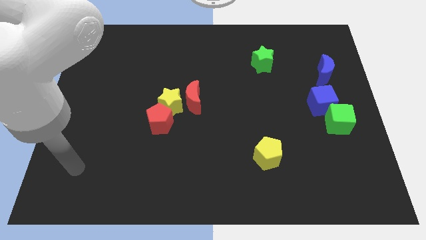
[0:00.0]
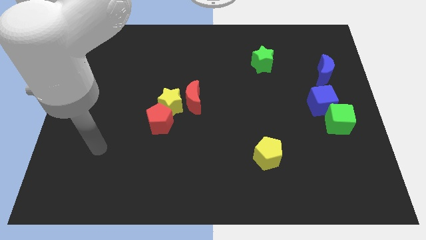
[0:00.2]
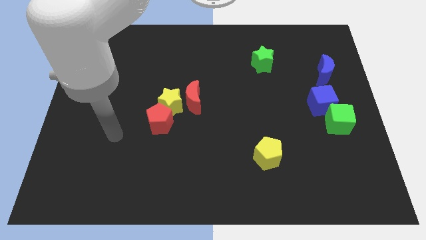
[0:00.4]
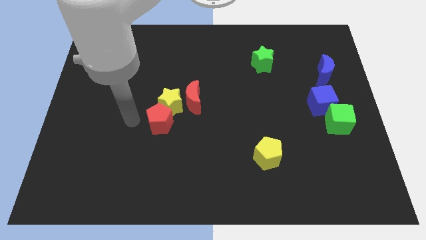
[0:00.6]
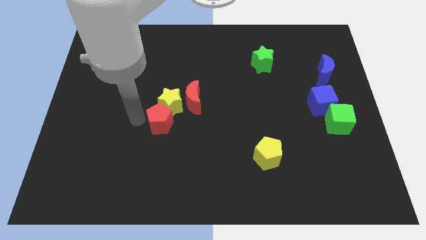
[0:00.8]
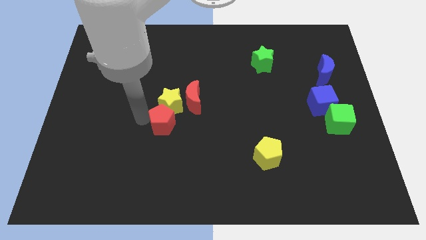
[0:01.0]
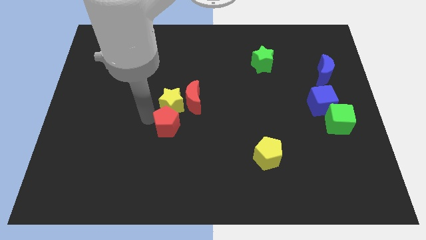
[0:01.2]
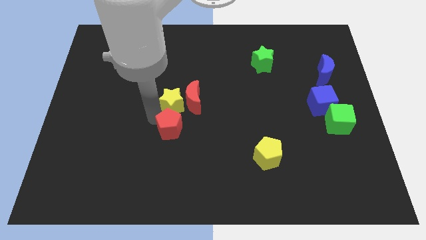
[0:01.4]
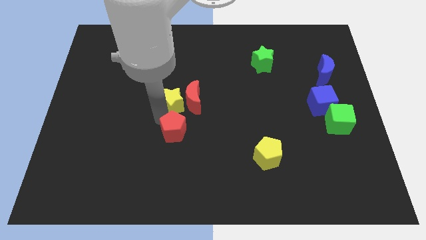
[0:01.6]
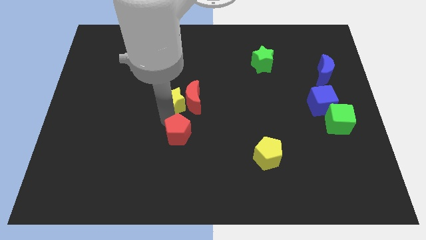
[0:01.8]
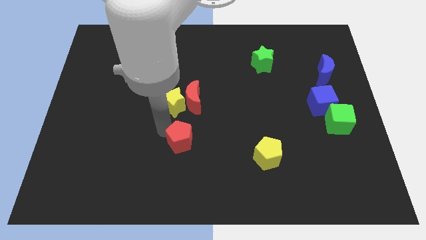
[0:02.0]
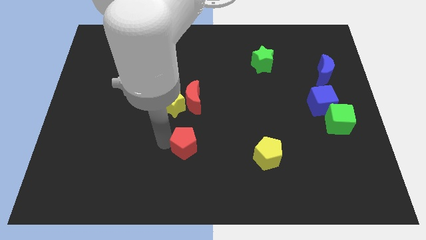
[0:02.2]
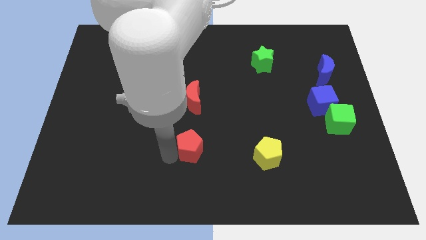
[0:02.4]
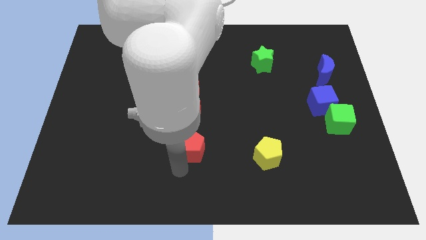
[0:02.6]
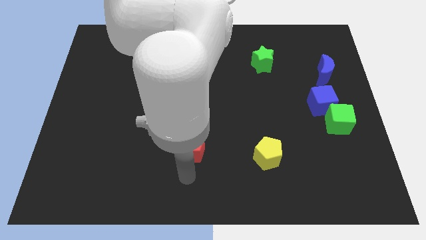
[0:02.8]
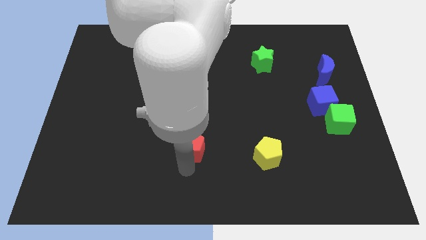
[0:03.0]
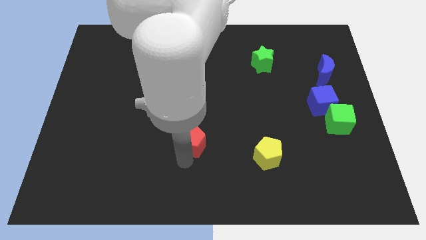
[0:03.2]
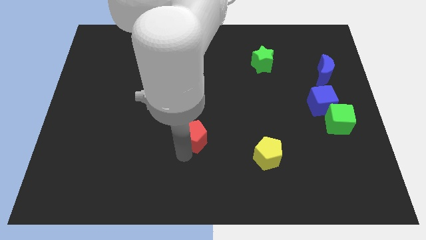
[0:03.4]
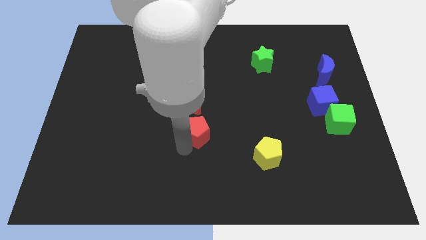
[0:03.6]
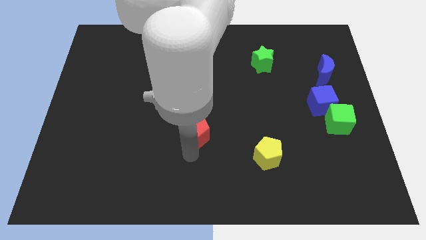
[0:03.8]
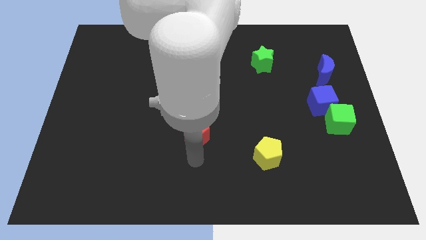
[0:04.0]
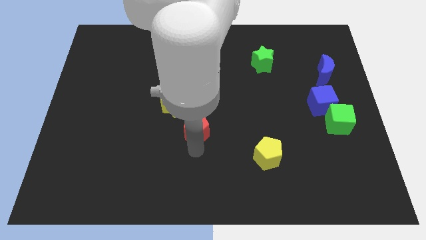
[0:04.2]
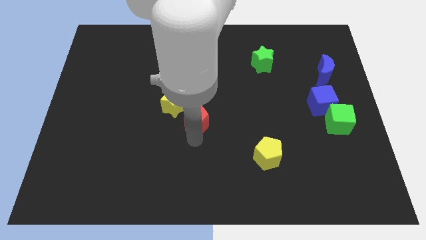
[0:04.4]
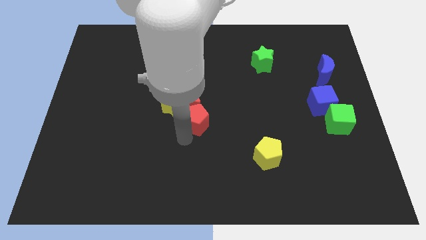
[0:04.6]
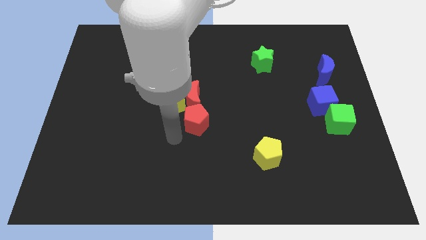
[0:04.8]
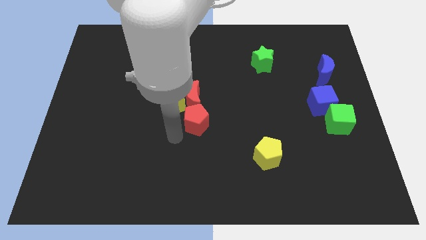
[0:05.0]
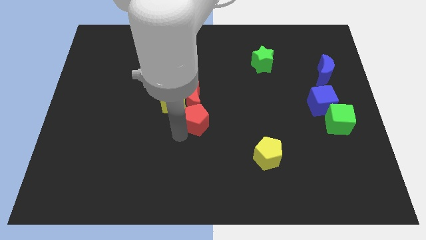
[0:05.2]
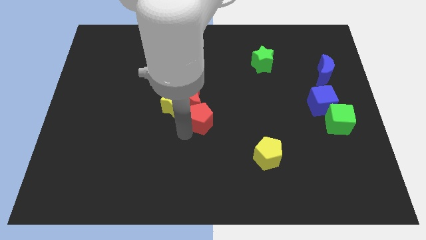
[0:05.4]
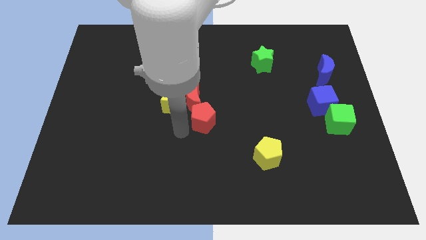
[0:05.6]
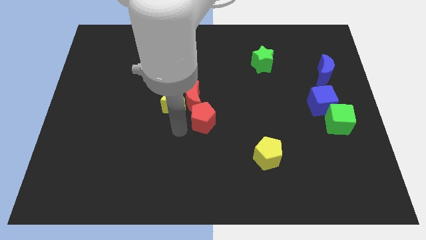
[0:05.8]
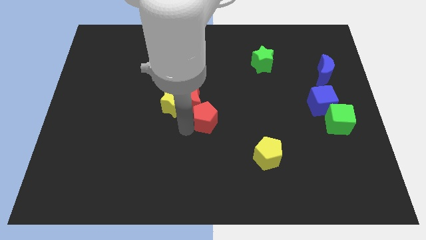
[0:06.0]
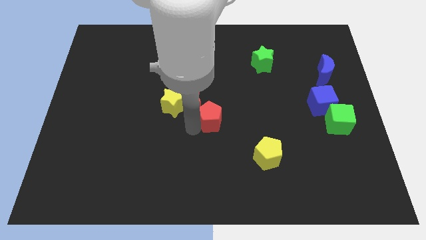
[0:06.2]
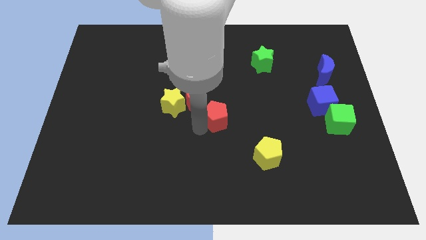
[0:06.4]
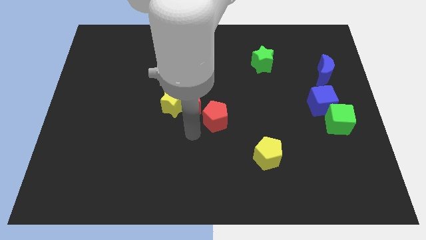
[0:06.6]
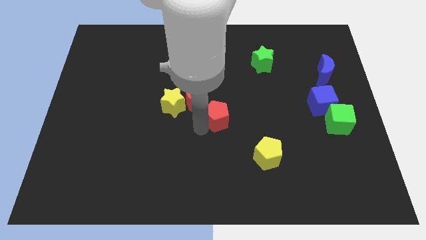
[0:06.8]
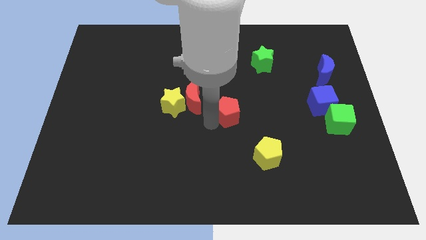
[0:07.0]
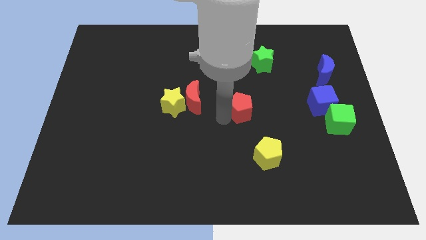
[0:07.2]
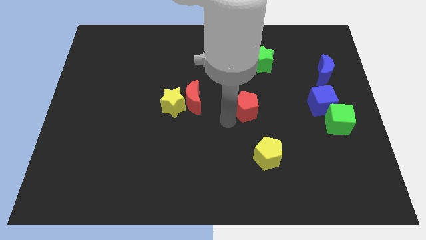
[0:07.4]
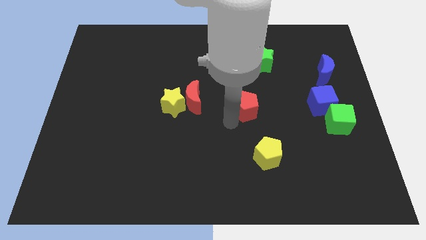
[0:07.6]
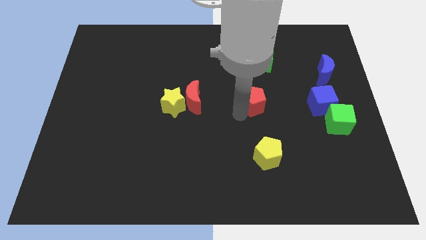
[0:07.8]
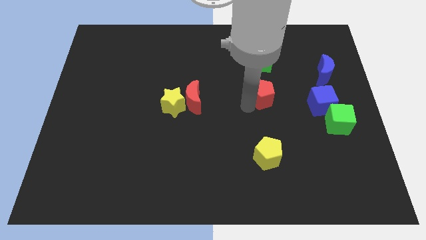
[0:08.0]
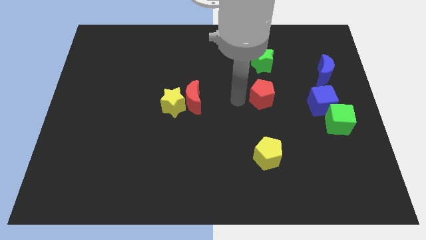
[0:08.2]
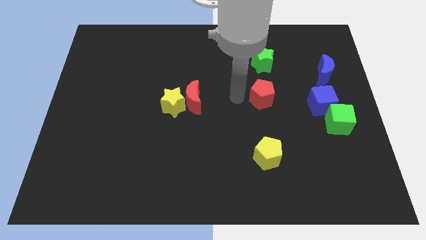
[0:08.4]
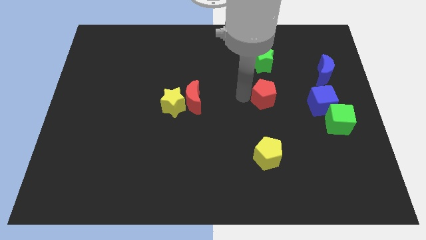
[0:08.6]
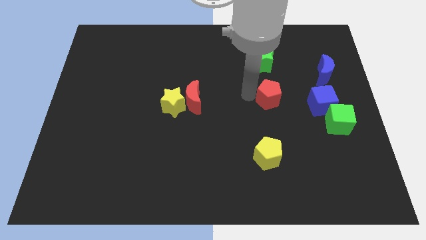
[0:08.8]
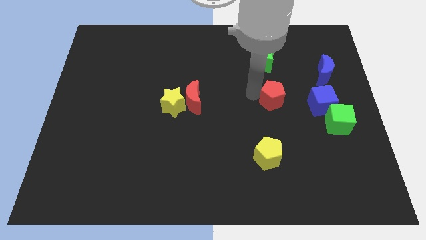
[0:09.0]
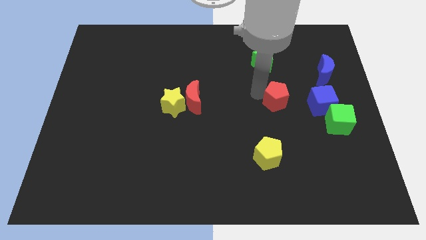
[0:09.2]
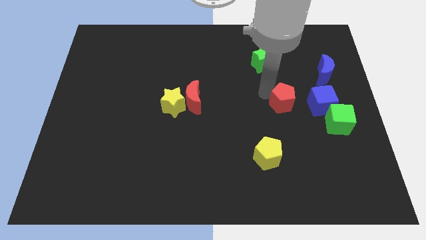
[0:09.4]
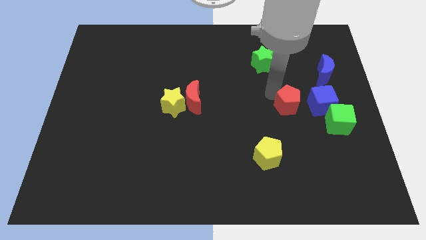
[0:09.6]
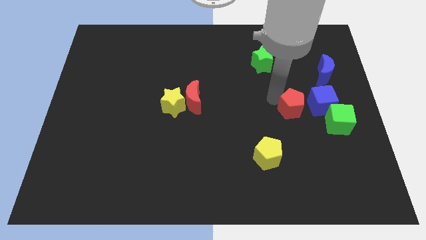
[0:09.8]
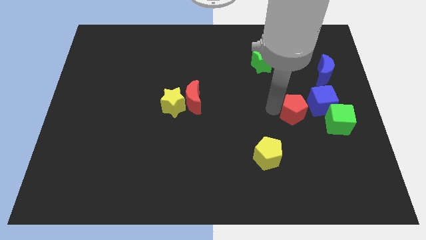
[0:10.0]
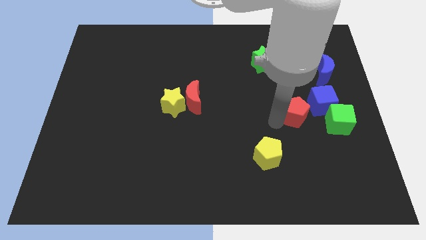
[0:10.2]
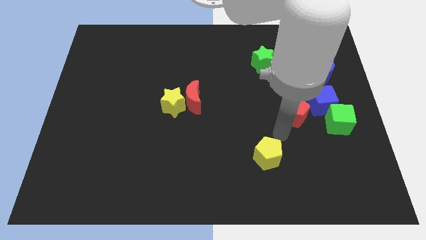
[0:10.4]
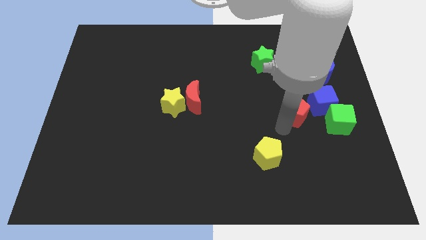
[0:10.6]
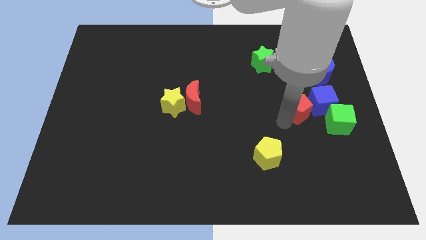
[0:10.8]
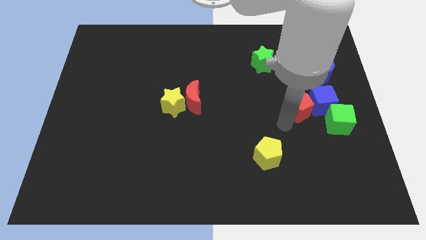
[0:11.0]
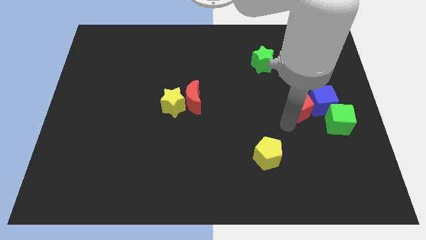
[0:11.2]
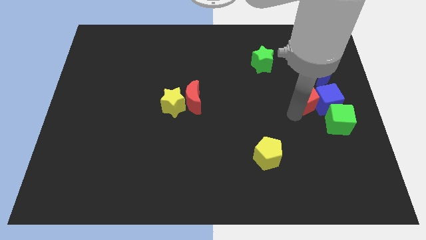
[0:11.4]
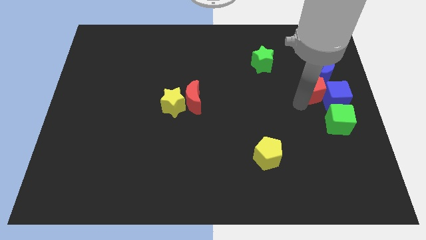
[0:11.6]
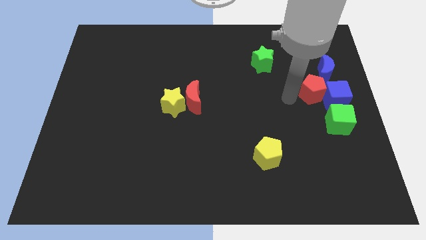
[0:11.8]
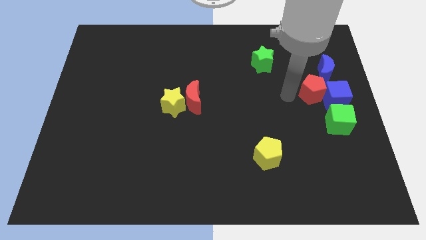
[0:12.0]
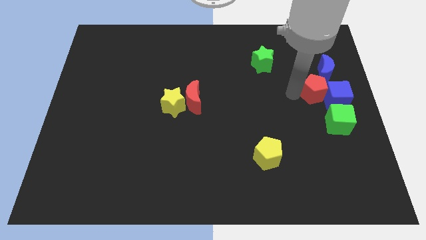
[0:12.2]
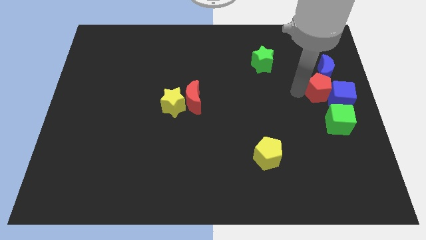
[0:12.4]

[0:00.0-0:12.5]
push the red pentagon to the right side of the board

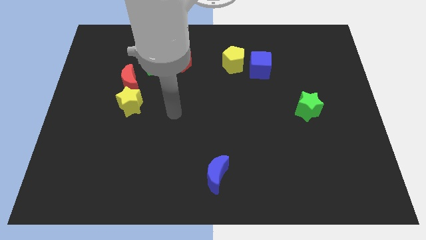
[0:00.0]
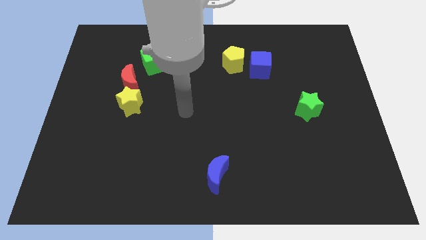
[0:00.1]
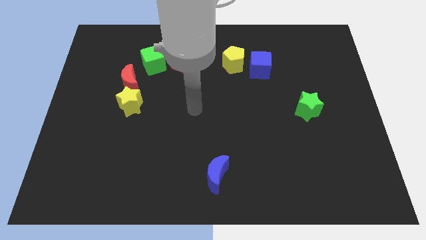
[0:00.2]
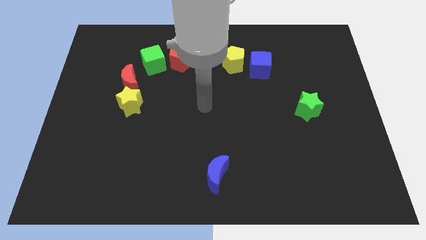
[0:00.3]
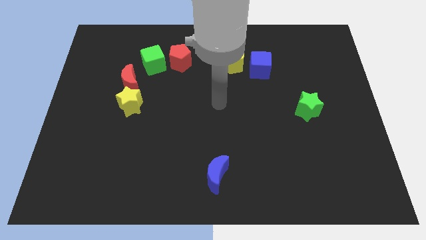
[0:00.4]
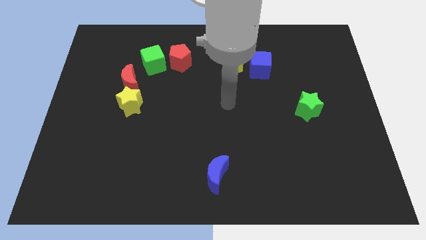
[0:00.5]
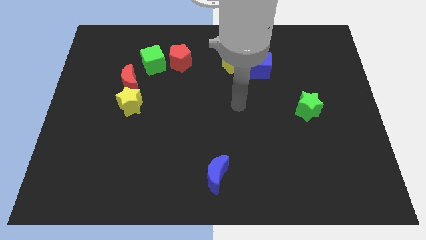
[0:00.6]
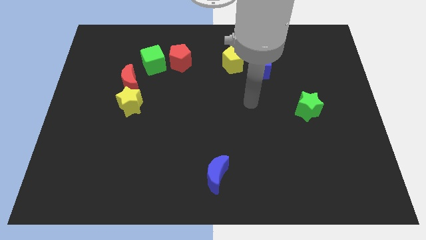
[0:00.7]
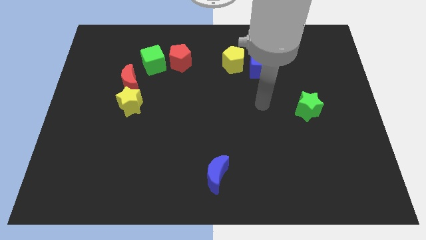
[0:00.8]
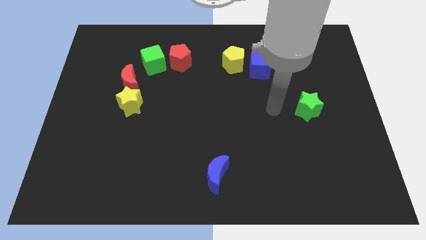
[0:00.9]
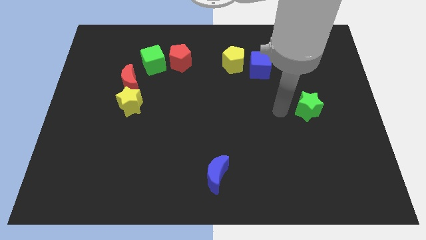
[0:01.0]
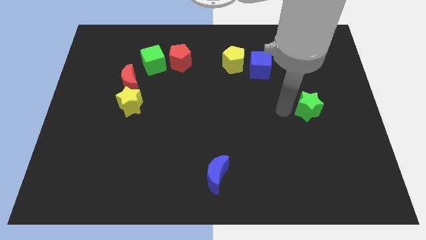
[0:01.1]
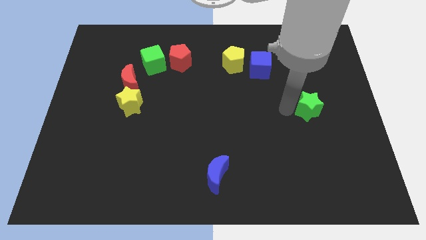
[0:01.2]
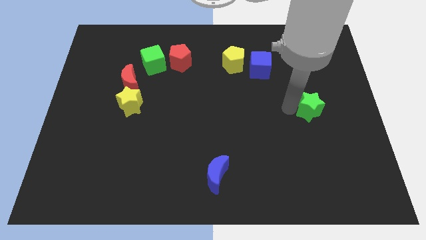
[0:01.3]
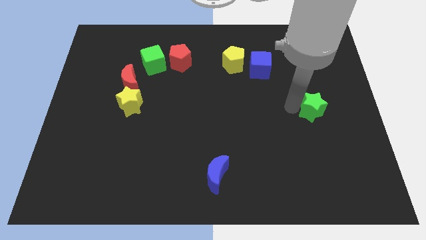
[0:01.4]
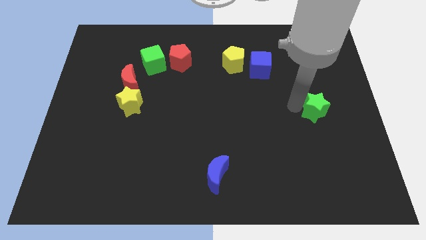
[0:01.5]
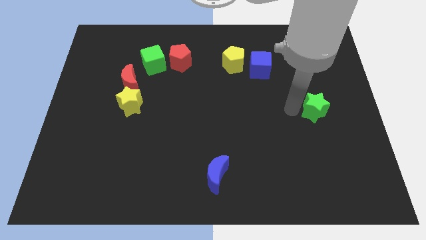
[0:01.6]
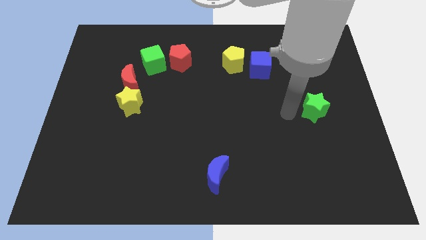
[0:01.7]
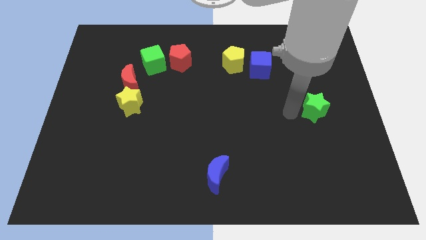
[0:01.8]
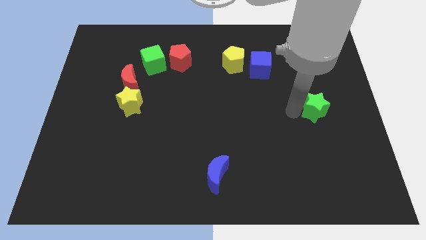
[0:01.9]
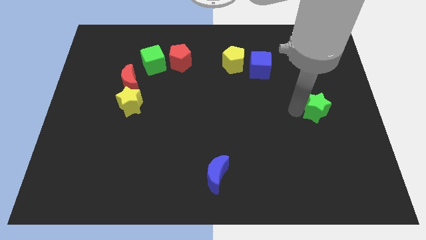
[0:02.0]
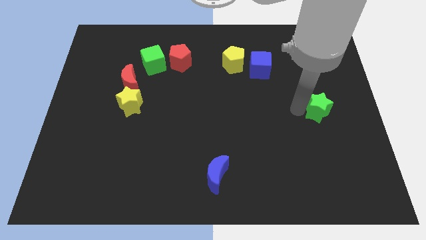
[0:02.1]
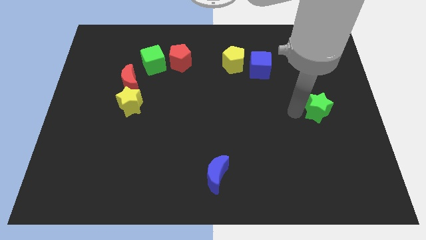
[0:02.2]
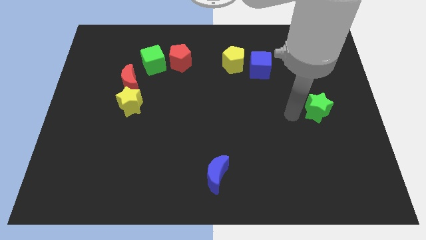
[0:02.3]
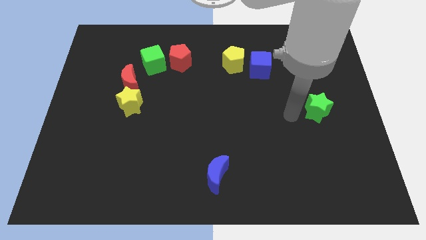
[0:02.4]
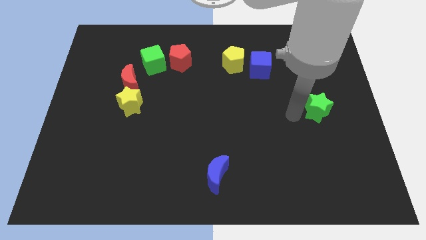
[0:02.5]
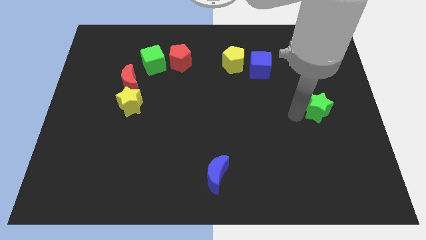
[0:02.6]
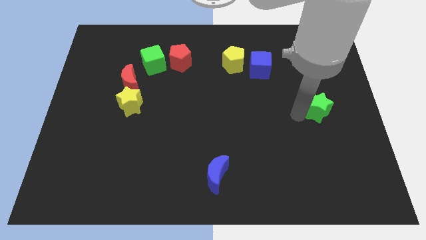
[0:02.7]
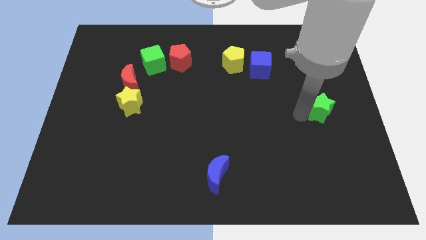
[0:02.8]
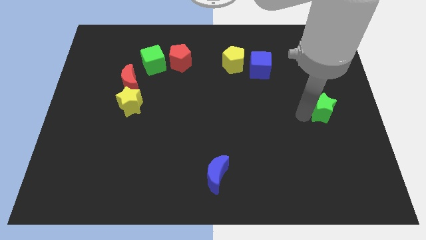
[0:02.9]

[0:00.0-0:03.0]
push the green star to the right side of the board
